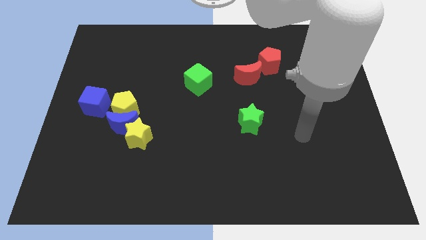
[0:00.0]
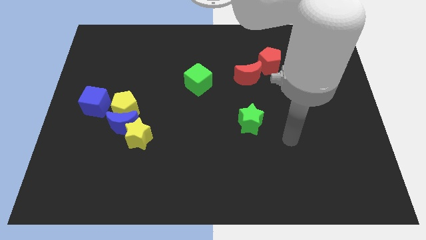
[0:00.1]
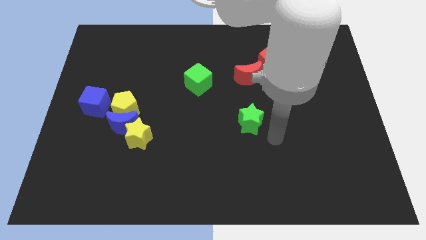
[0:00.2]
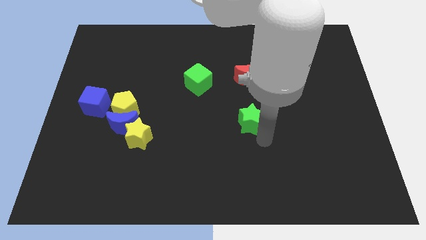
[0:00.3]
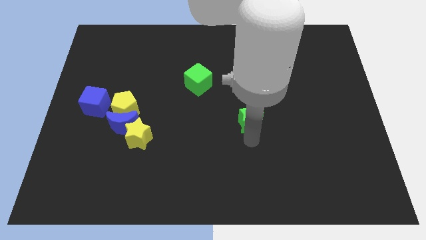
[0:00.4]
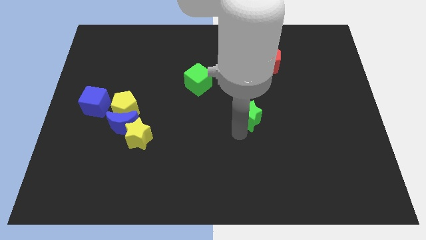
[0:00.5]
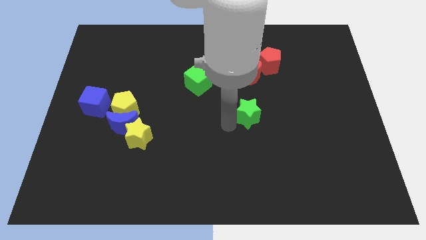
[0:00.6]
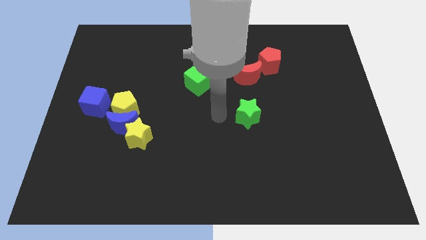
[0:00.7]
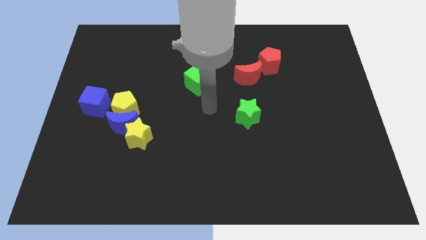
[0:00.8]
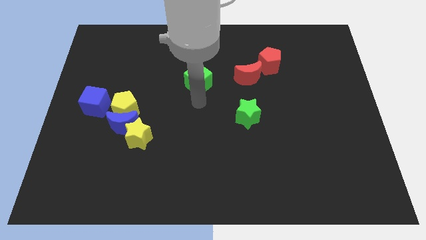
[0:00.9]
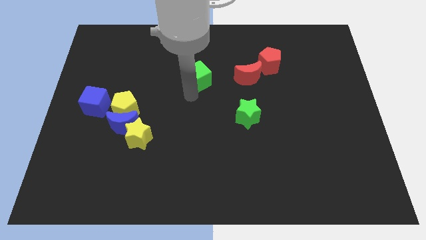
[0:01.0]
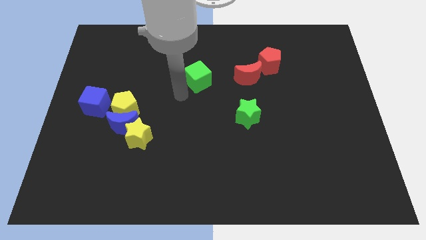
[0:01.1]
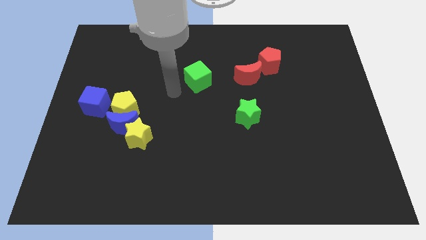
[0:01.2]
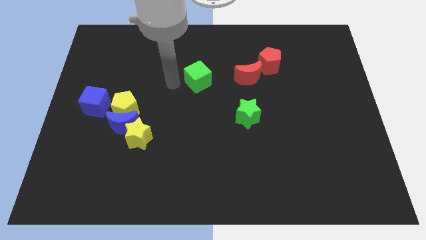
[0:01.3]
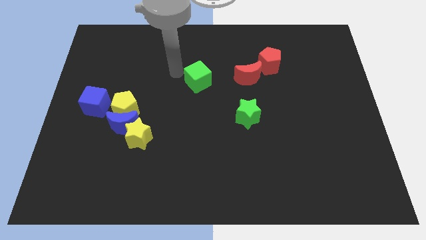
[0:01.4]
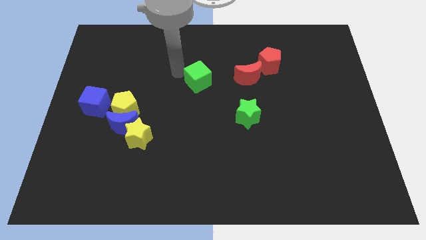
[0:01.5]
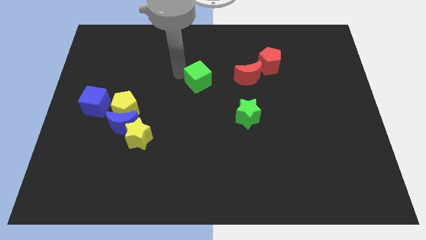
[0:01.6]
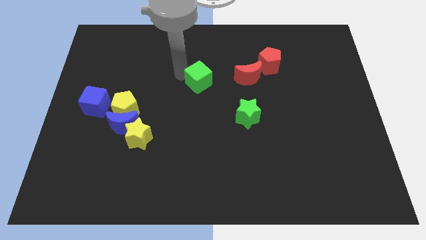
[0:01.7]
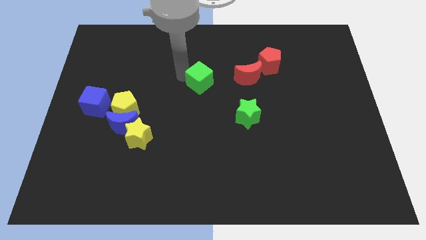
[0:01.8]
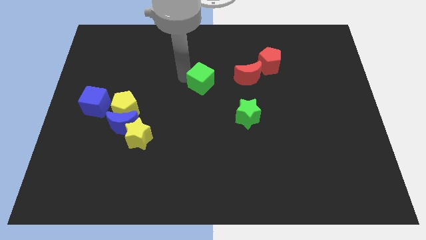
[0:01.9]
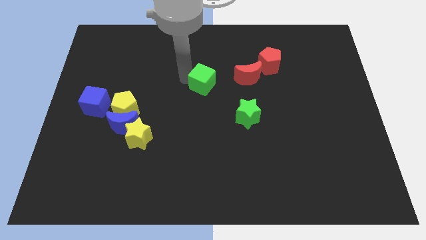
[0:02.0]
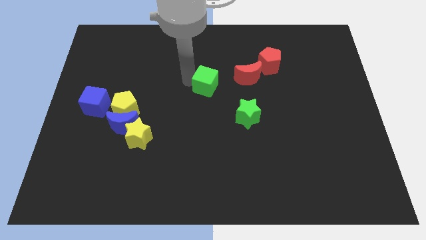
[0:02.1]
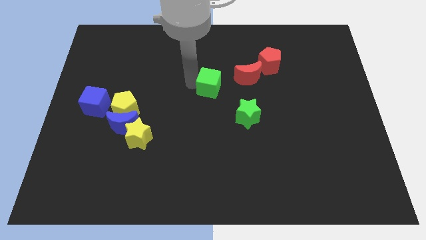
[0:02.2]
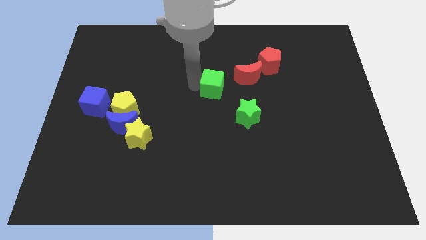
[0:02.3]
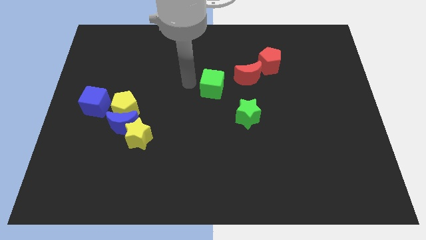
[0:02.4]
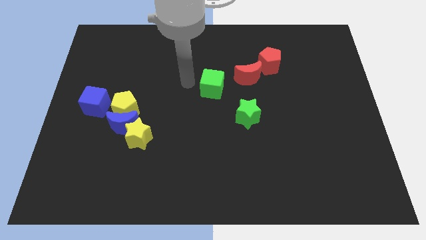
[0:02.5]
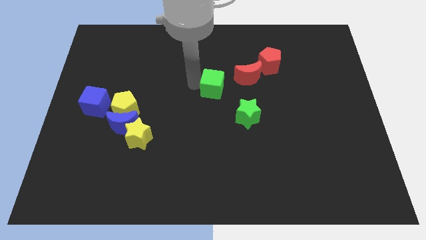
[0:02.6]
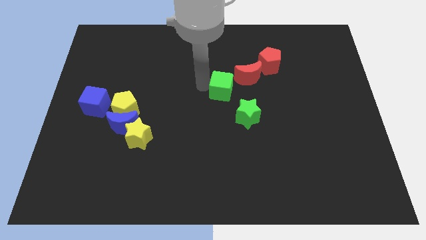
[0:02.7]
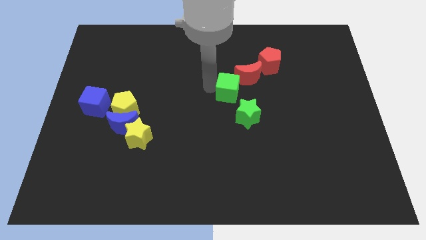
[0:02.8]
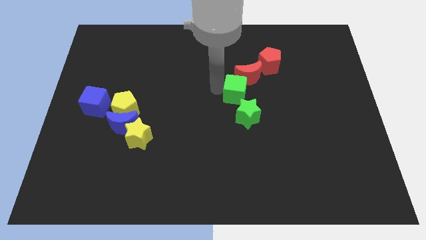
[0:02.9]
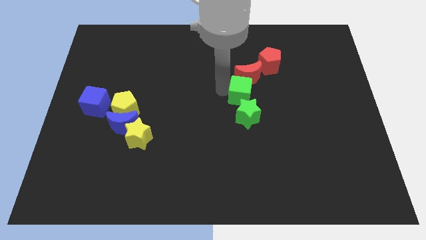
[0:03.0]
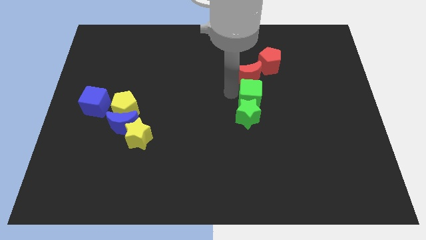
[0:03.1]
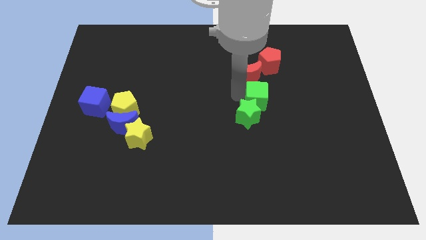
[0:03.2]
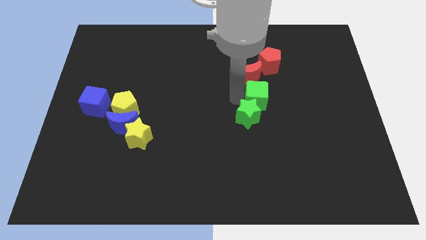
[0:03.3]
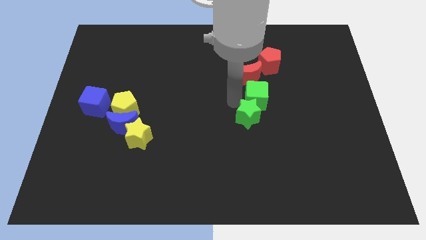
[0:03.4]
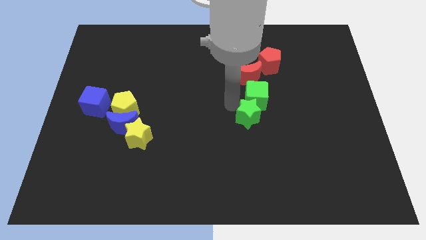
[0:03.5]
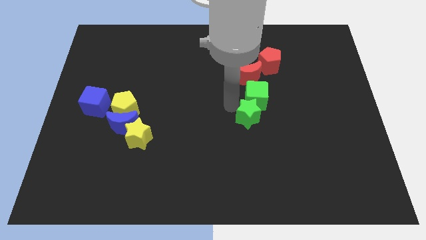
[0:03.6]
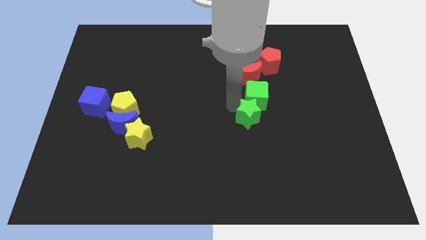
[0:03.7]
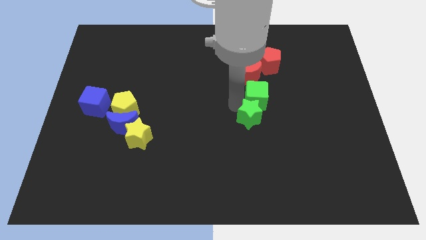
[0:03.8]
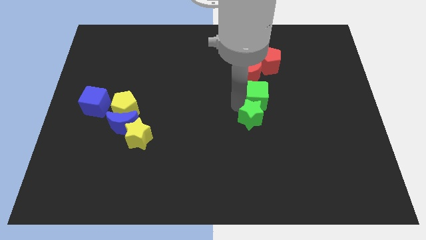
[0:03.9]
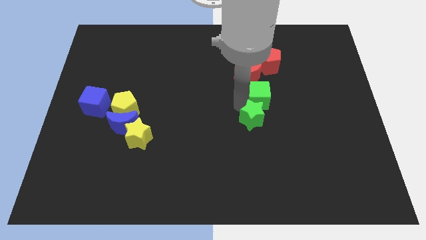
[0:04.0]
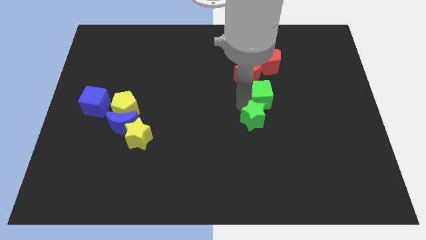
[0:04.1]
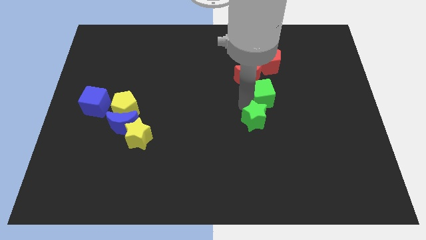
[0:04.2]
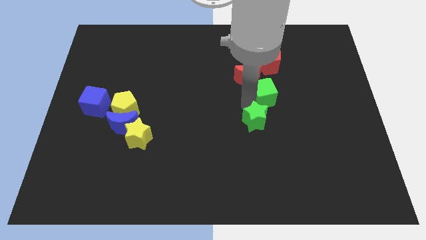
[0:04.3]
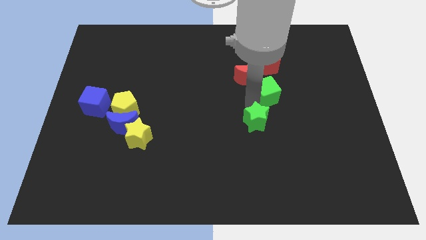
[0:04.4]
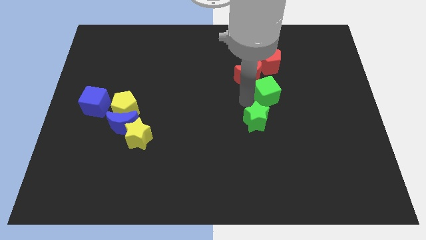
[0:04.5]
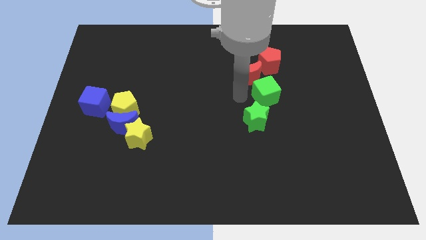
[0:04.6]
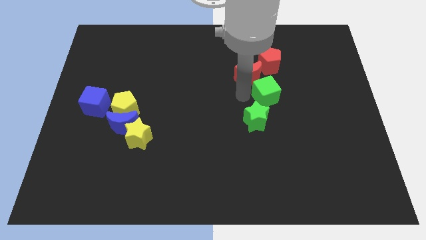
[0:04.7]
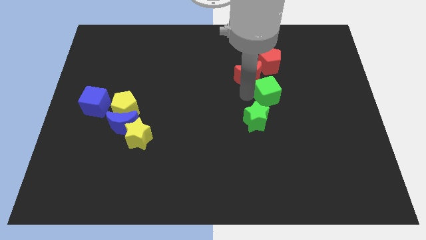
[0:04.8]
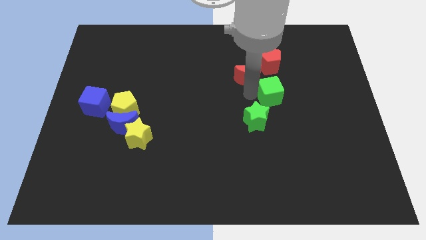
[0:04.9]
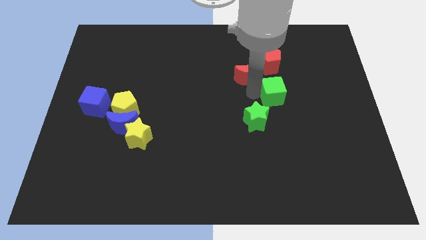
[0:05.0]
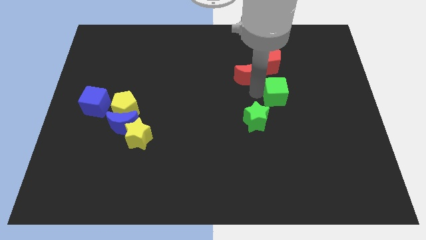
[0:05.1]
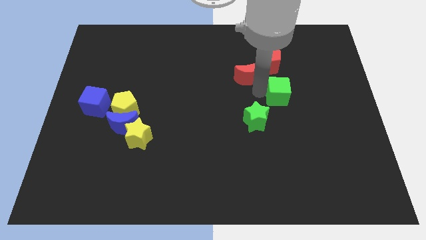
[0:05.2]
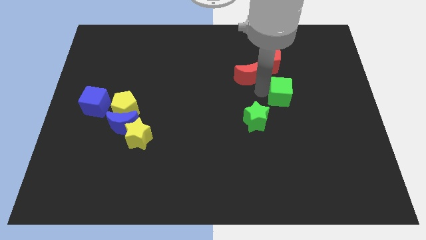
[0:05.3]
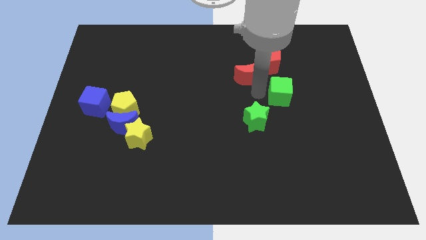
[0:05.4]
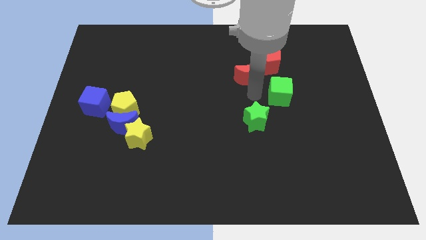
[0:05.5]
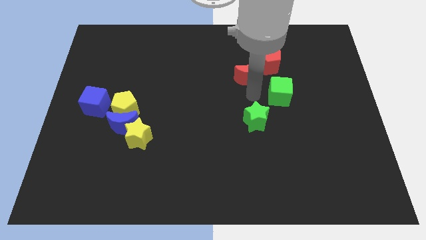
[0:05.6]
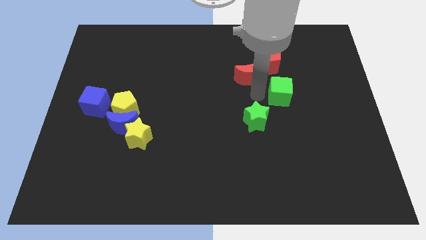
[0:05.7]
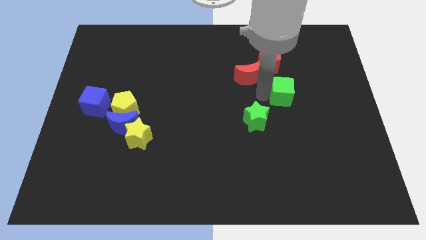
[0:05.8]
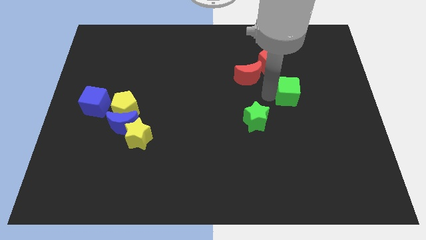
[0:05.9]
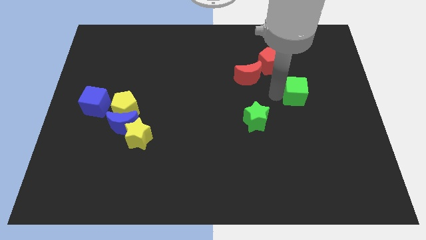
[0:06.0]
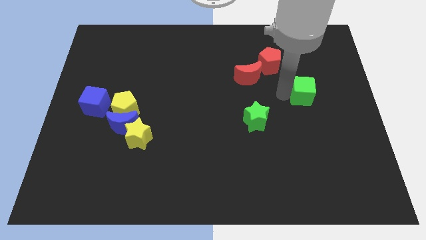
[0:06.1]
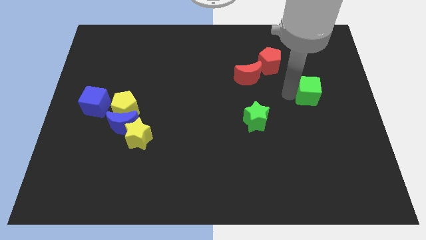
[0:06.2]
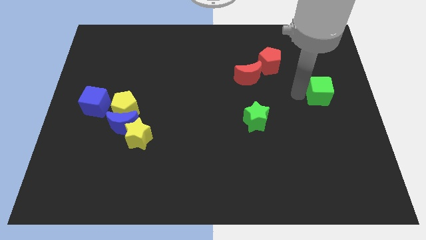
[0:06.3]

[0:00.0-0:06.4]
put the green cube to the right side
